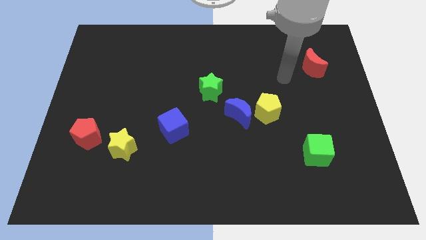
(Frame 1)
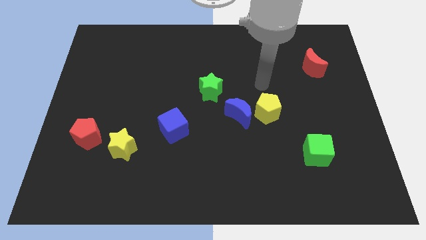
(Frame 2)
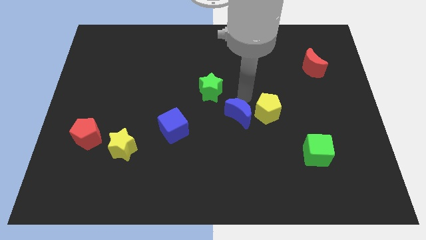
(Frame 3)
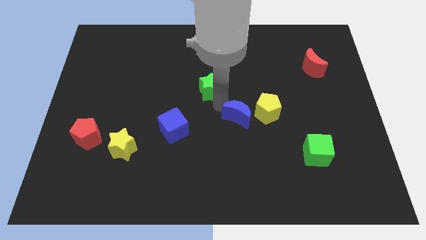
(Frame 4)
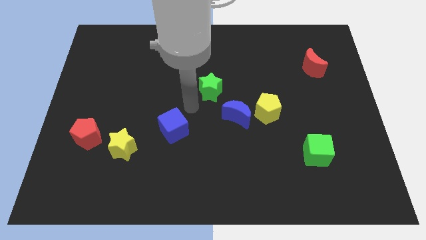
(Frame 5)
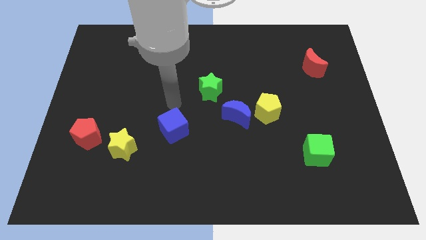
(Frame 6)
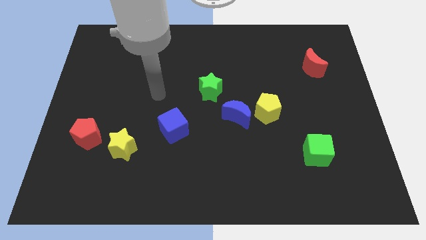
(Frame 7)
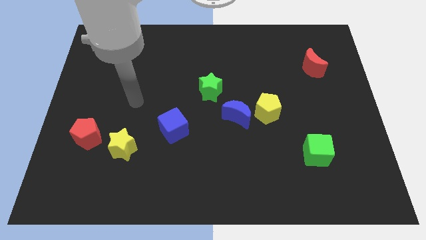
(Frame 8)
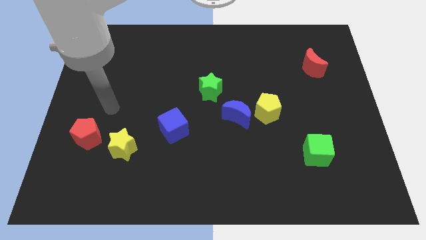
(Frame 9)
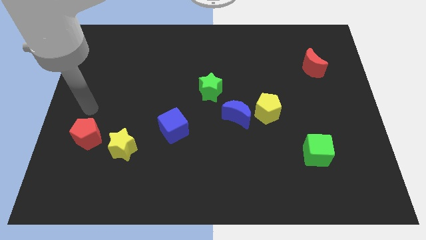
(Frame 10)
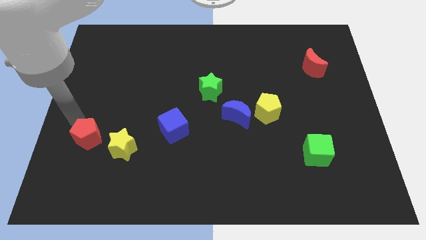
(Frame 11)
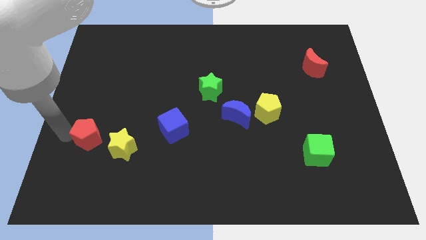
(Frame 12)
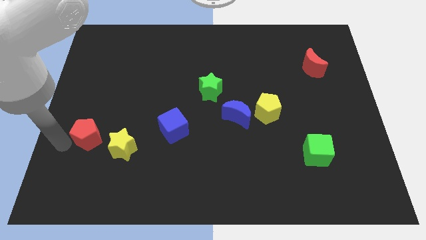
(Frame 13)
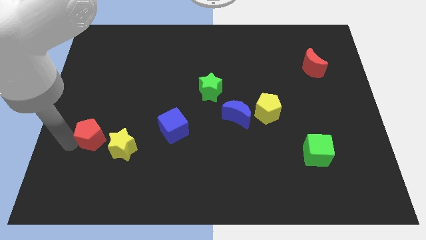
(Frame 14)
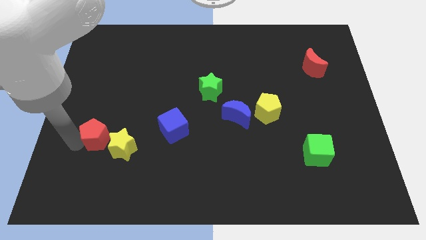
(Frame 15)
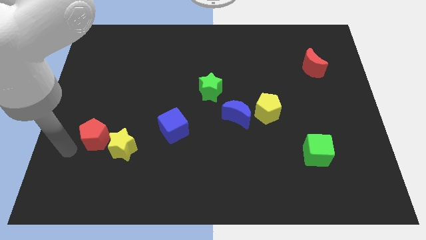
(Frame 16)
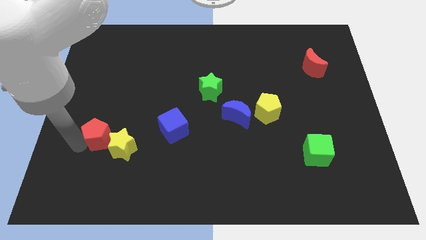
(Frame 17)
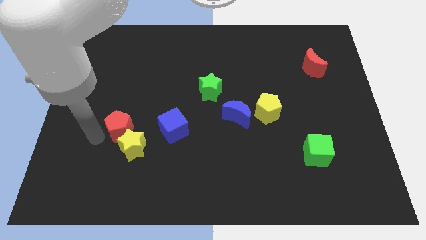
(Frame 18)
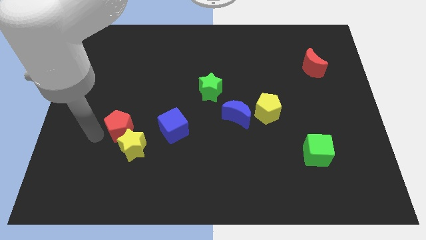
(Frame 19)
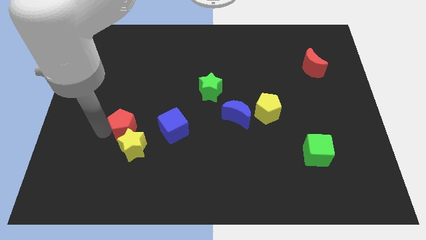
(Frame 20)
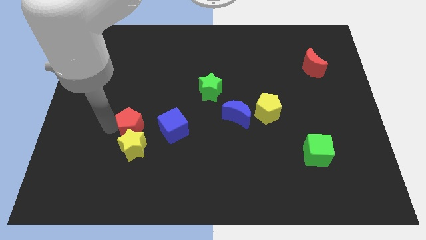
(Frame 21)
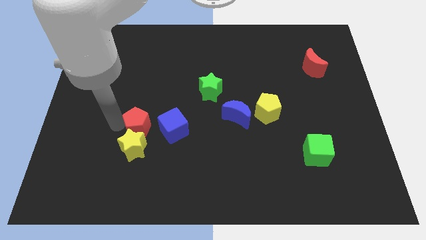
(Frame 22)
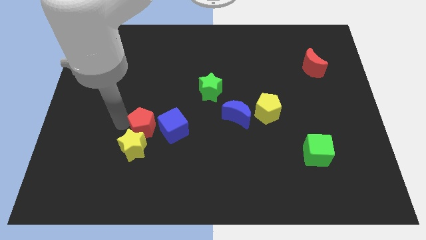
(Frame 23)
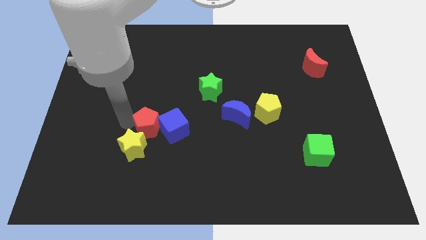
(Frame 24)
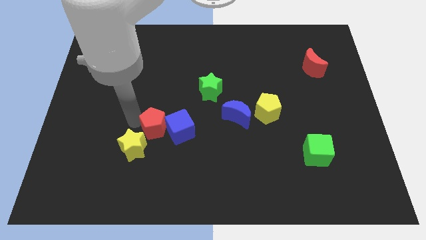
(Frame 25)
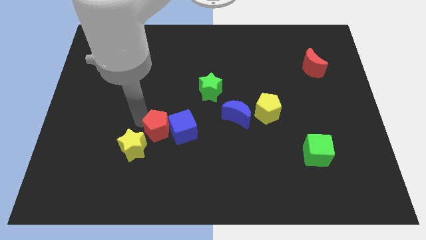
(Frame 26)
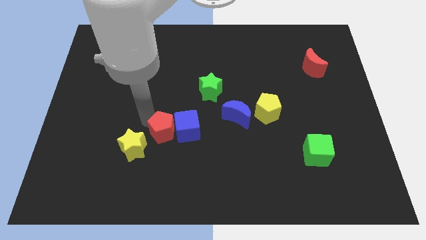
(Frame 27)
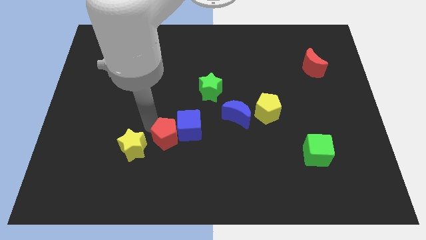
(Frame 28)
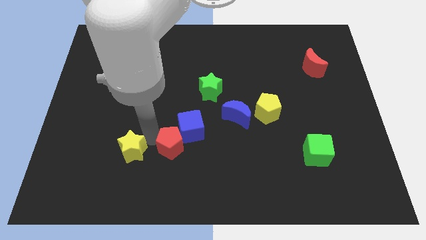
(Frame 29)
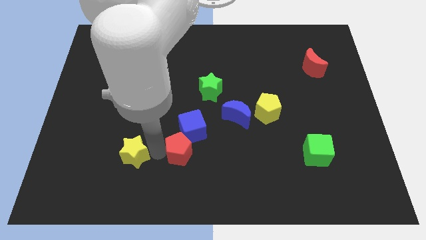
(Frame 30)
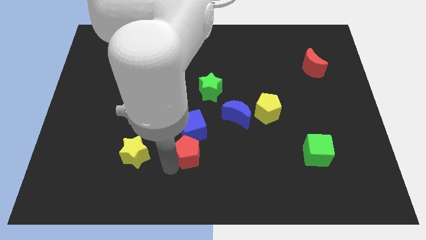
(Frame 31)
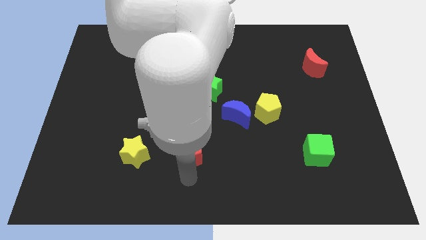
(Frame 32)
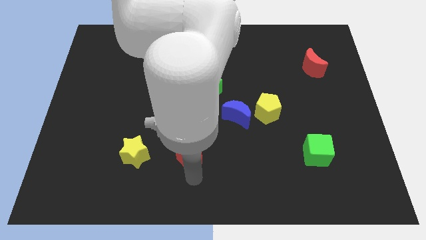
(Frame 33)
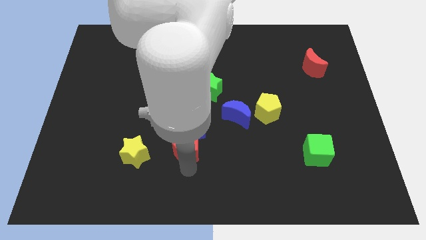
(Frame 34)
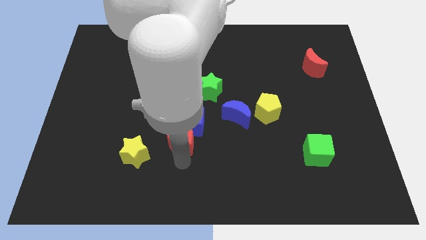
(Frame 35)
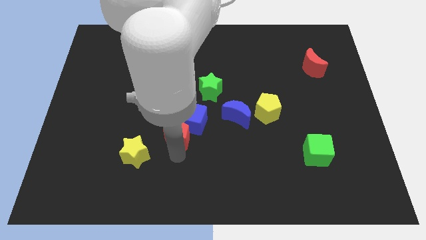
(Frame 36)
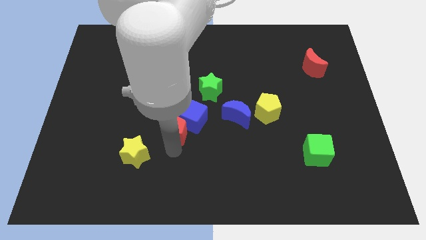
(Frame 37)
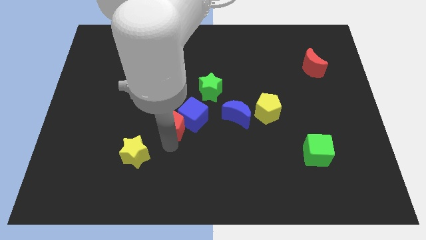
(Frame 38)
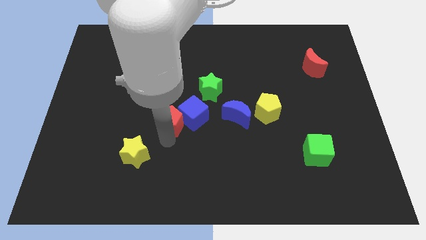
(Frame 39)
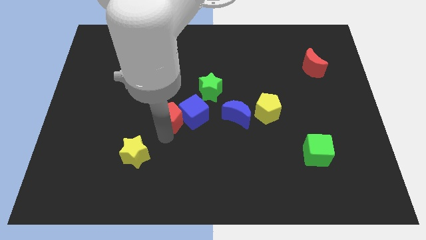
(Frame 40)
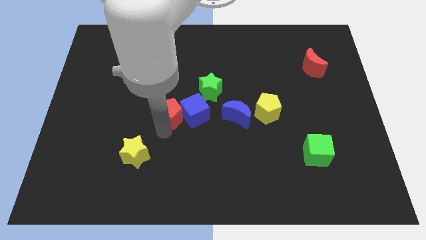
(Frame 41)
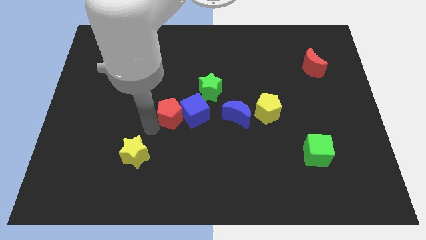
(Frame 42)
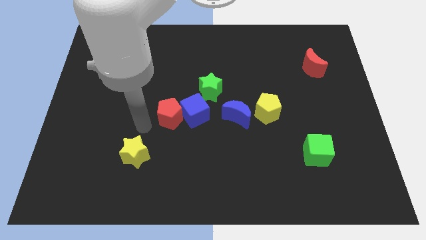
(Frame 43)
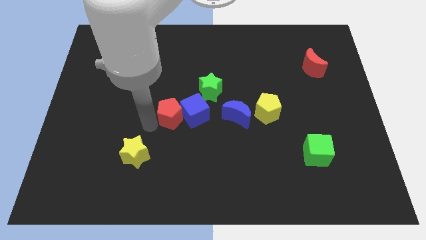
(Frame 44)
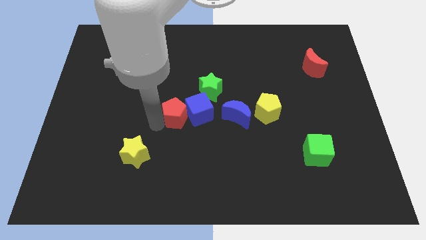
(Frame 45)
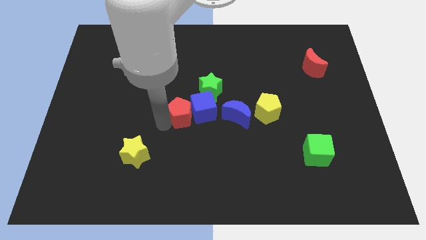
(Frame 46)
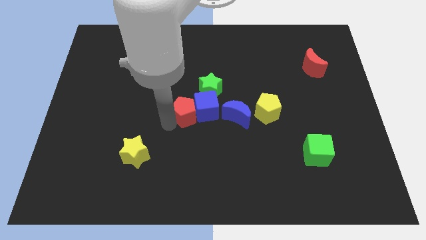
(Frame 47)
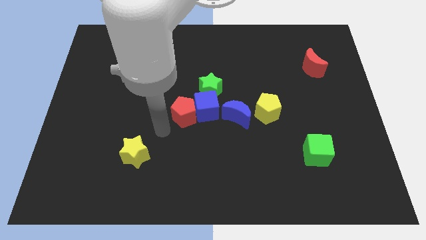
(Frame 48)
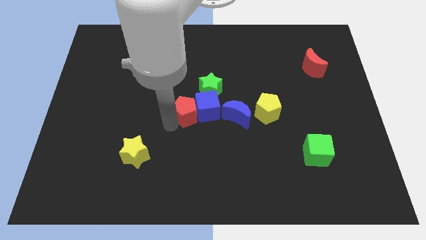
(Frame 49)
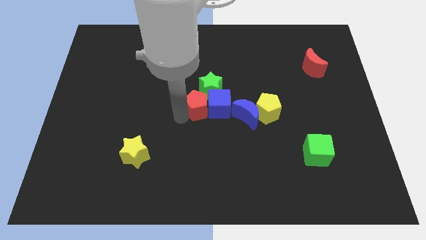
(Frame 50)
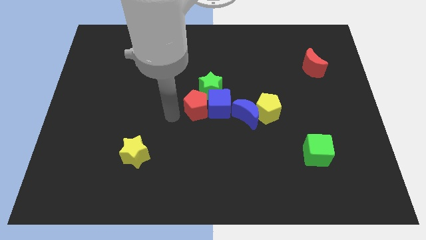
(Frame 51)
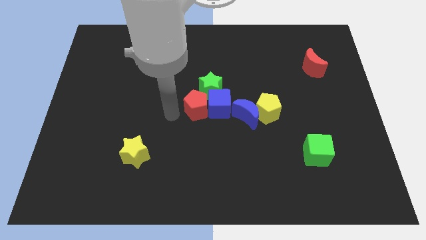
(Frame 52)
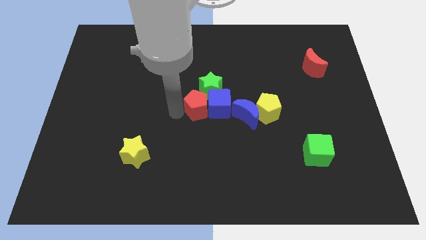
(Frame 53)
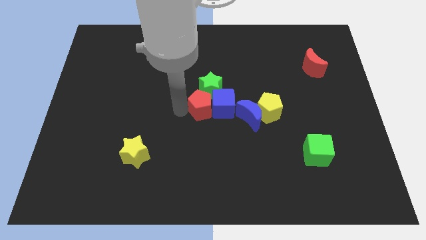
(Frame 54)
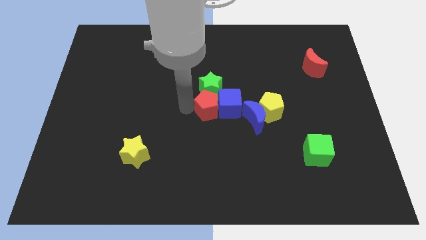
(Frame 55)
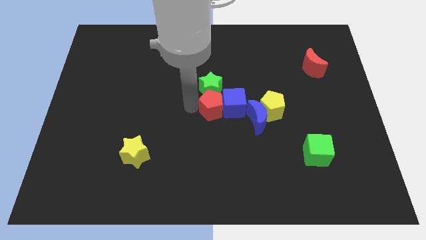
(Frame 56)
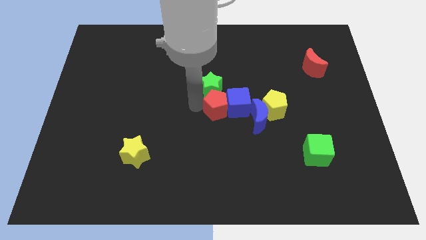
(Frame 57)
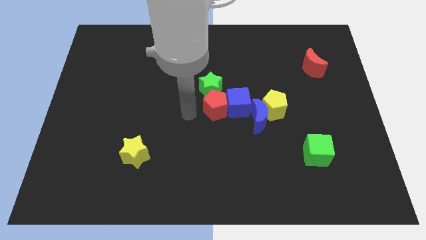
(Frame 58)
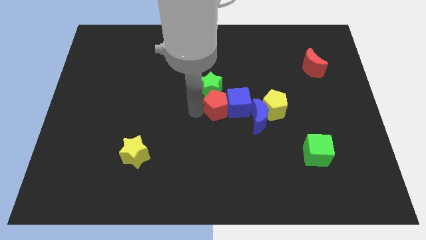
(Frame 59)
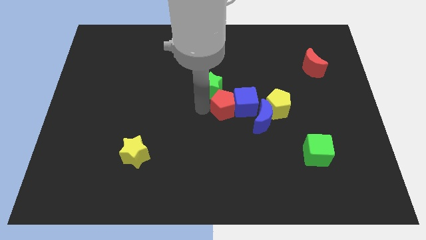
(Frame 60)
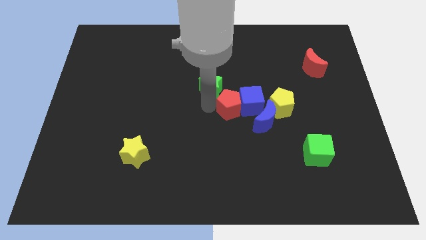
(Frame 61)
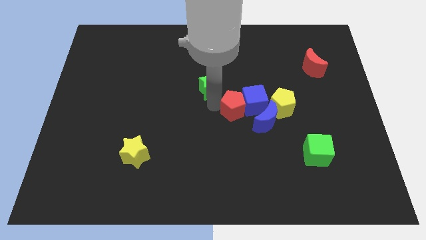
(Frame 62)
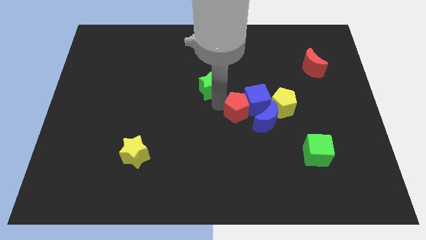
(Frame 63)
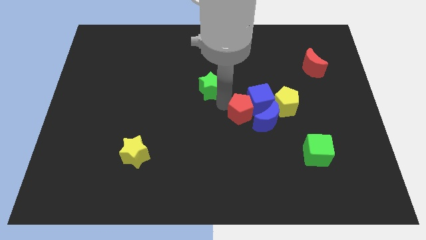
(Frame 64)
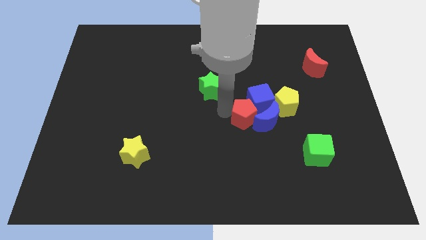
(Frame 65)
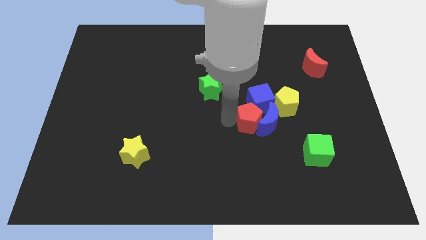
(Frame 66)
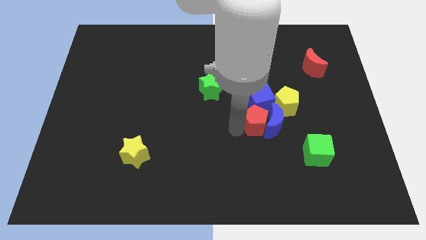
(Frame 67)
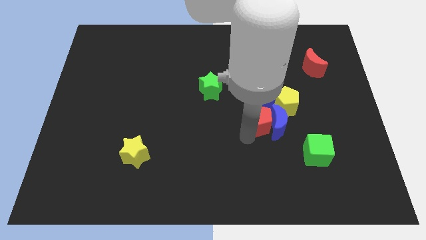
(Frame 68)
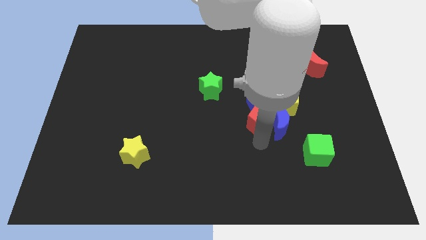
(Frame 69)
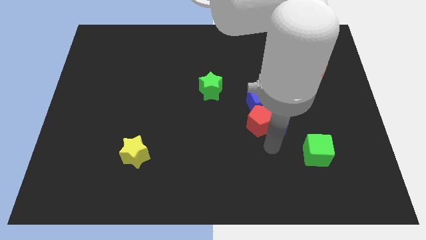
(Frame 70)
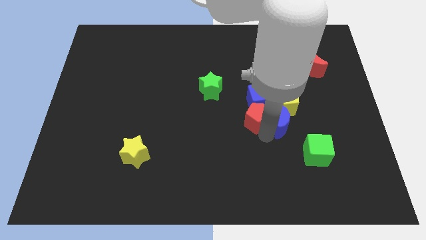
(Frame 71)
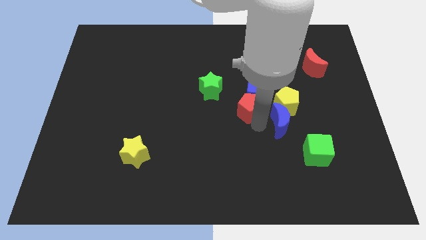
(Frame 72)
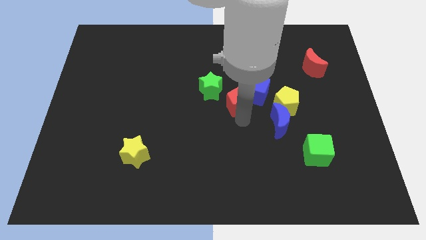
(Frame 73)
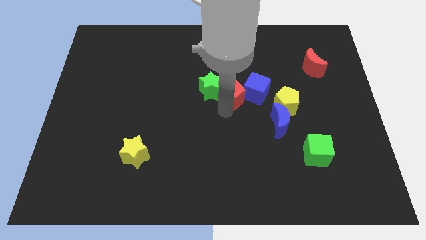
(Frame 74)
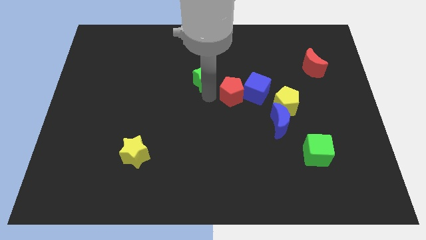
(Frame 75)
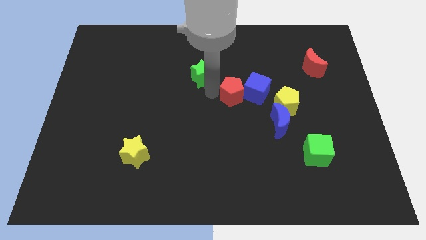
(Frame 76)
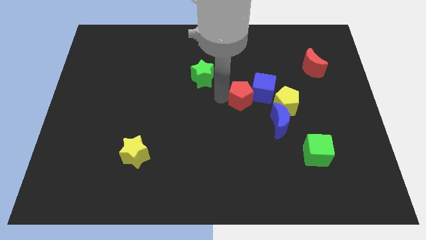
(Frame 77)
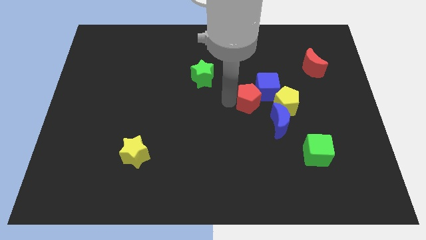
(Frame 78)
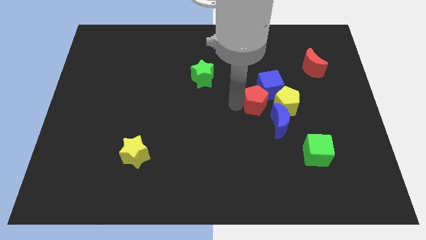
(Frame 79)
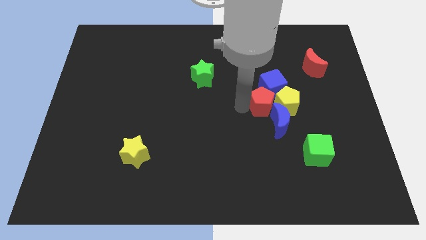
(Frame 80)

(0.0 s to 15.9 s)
put the red pentagon to the yellow pentagon

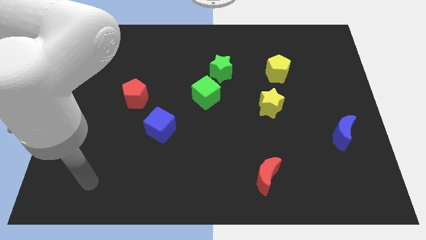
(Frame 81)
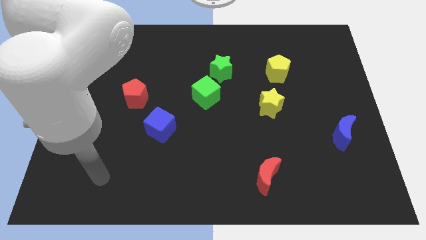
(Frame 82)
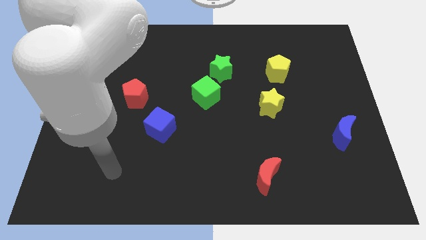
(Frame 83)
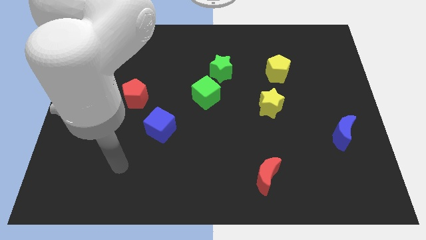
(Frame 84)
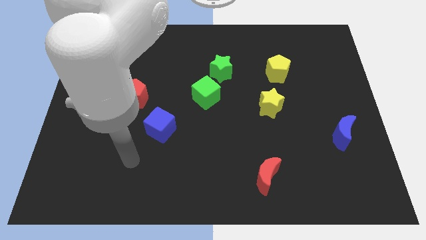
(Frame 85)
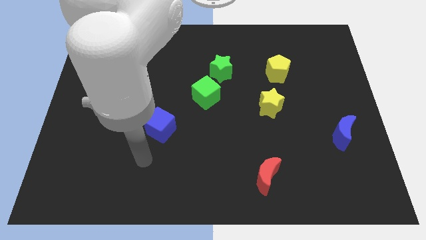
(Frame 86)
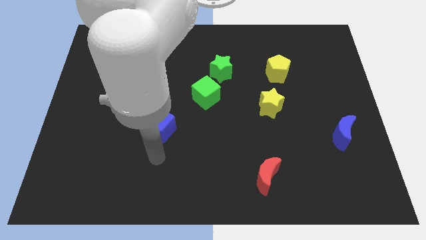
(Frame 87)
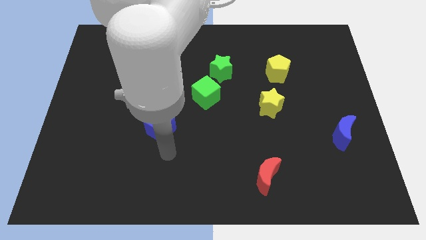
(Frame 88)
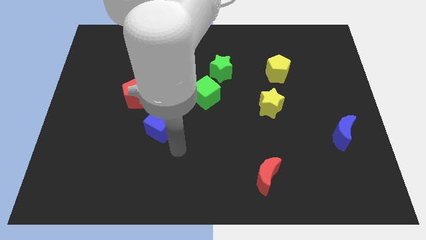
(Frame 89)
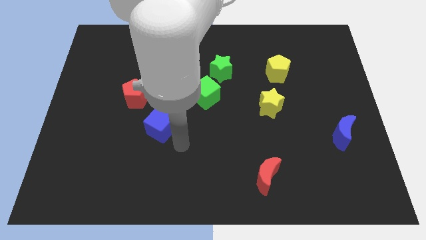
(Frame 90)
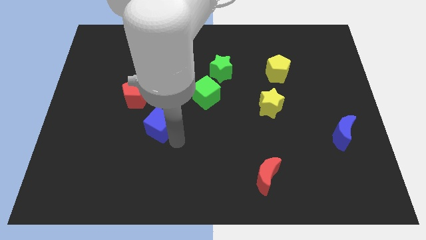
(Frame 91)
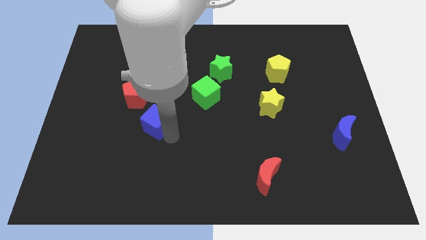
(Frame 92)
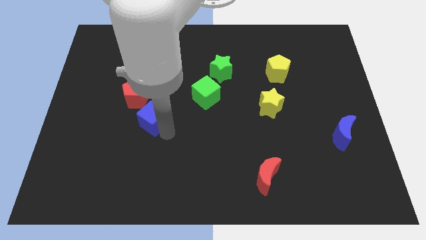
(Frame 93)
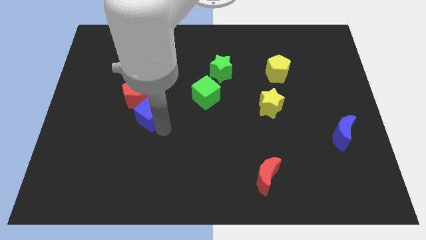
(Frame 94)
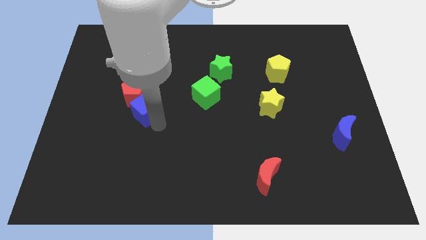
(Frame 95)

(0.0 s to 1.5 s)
slide the blue cube towards the red pentagon
